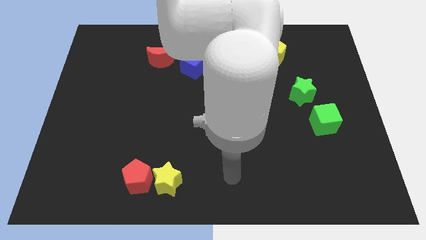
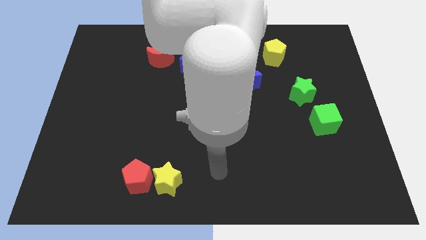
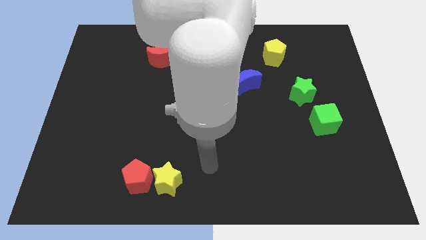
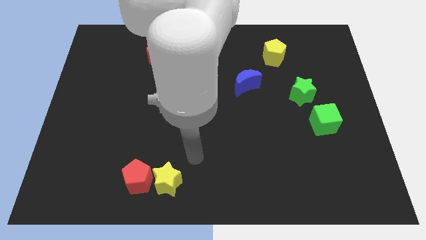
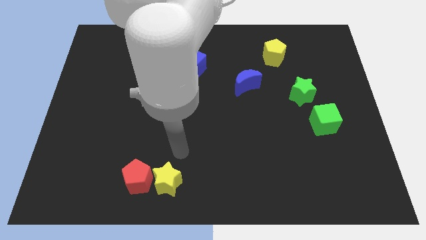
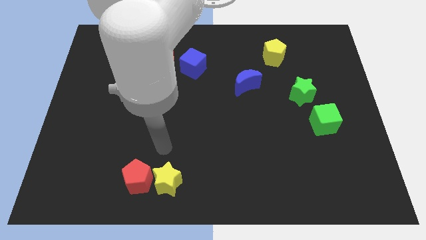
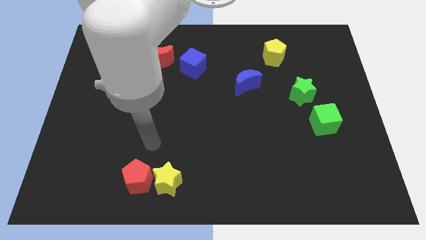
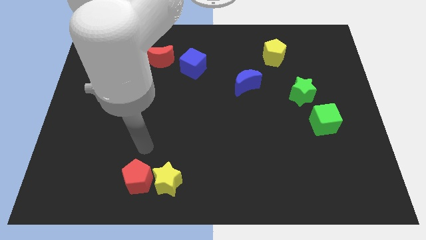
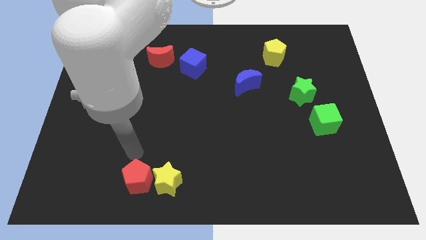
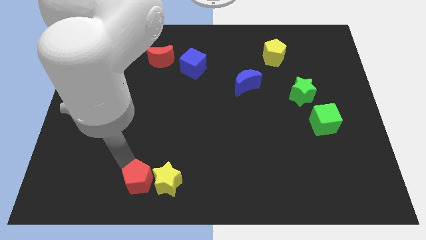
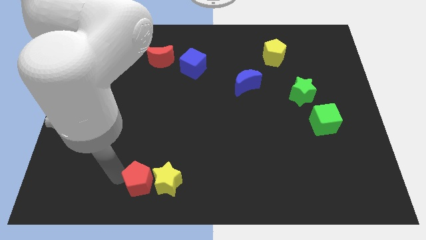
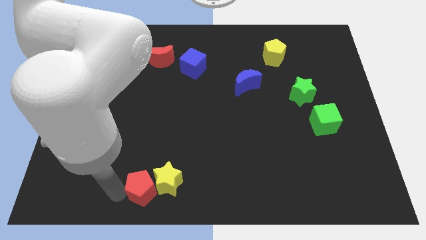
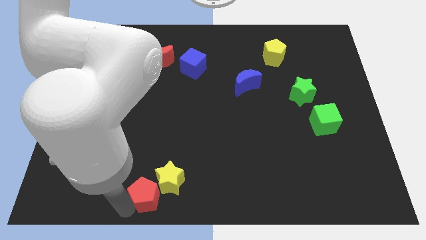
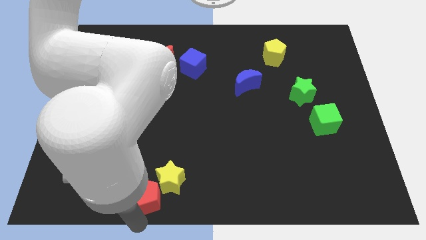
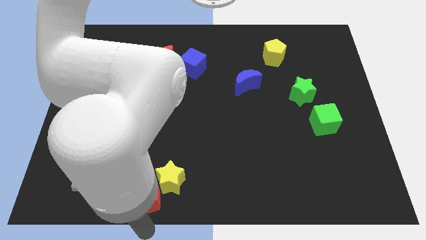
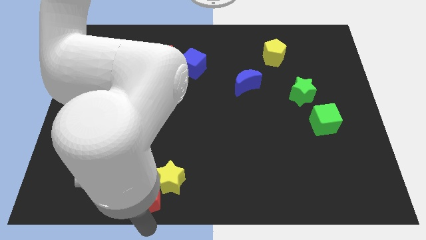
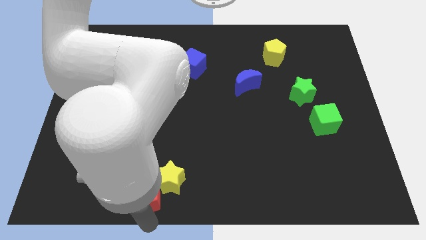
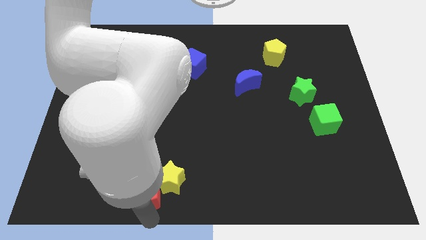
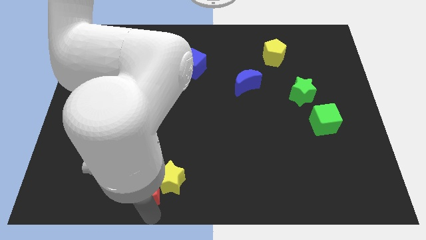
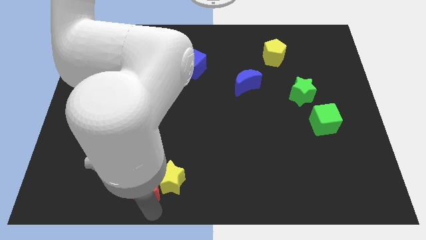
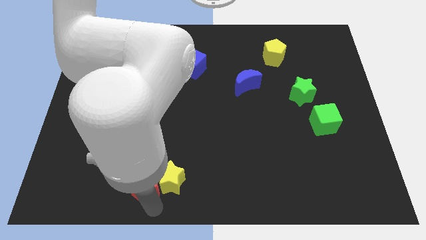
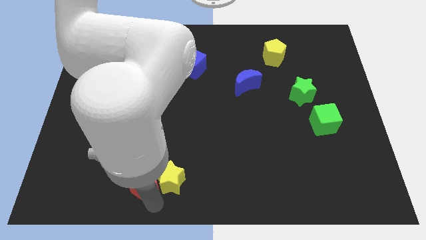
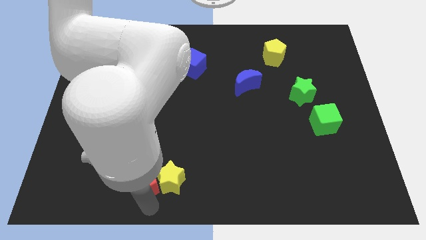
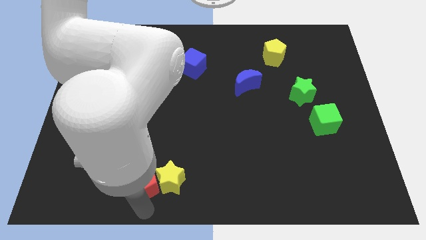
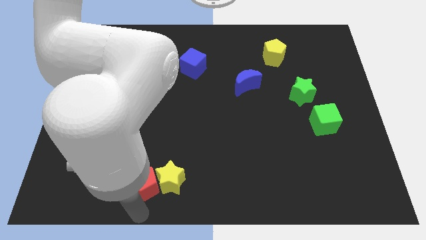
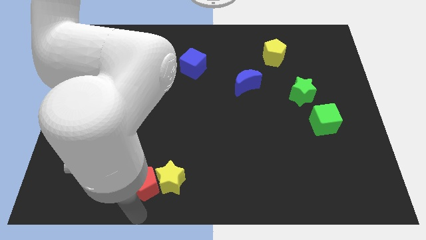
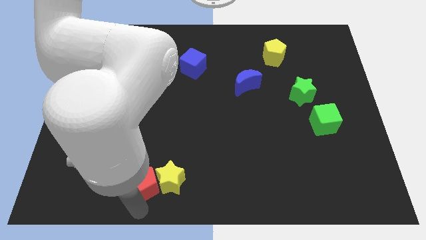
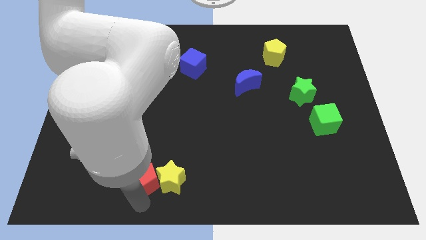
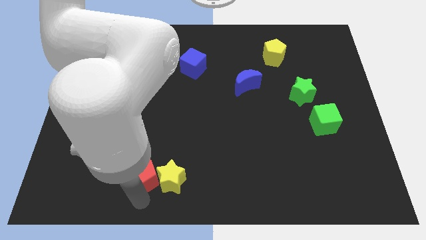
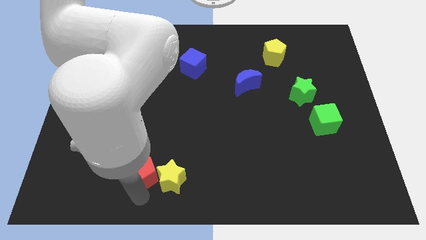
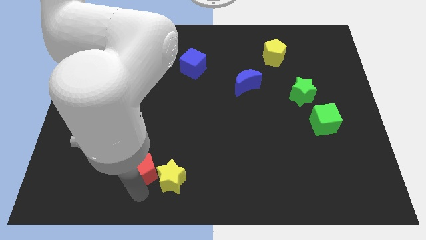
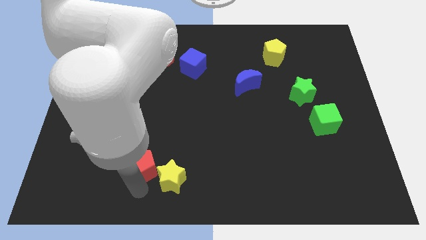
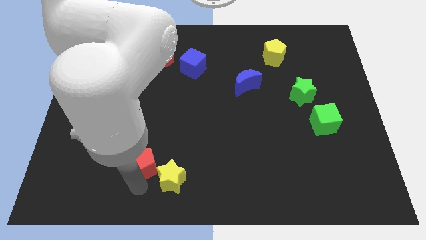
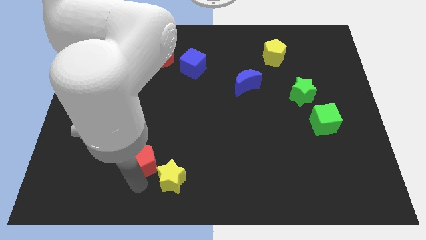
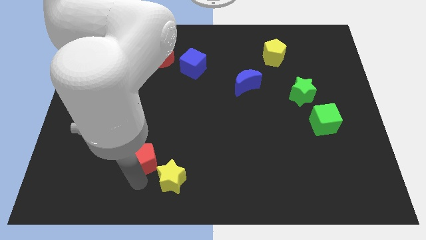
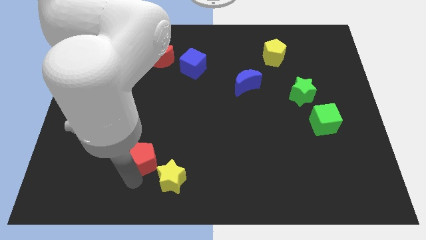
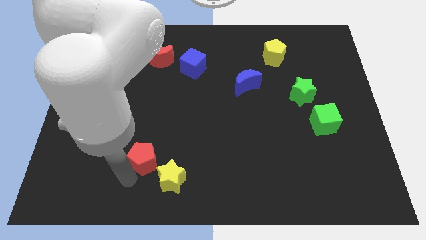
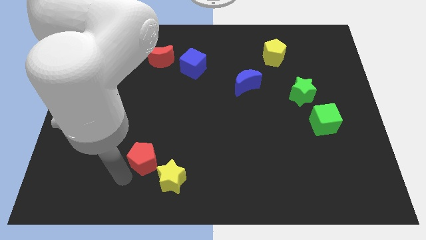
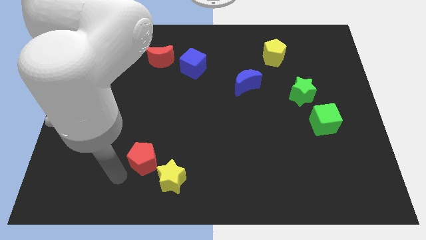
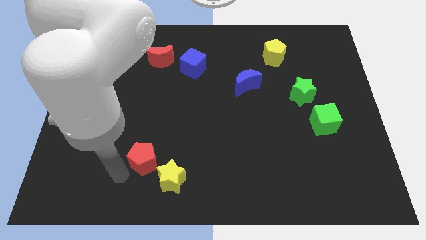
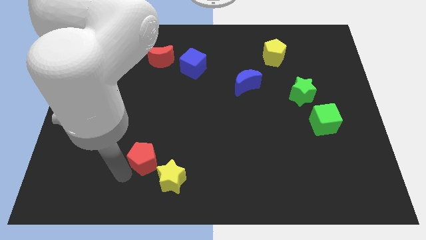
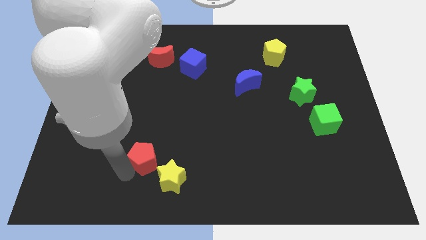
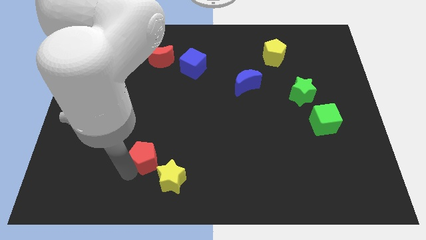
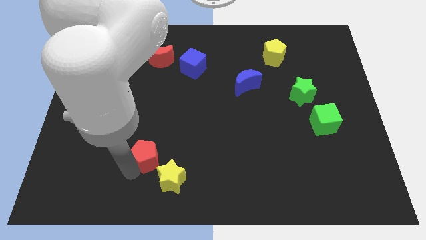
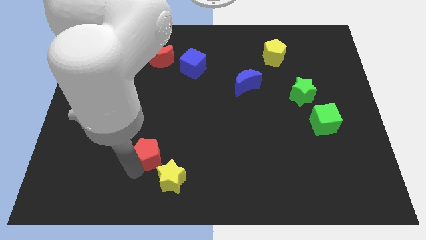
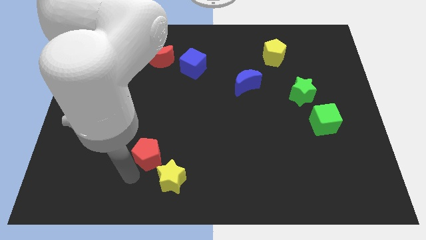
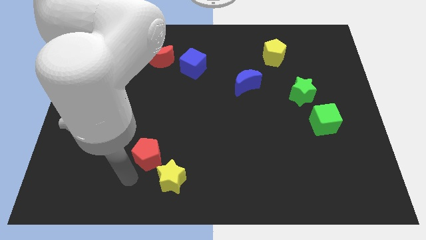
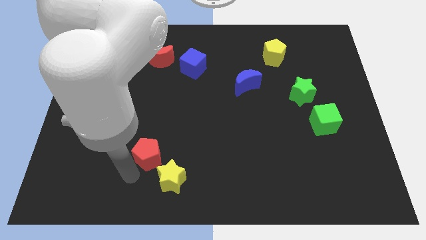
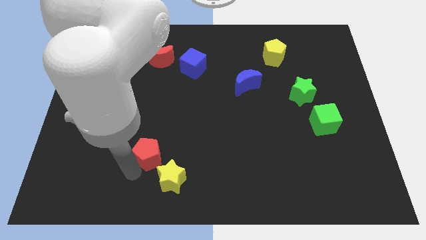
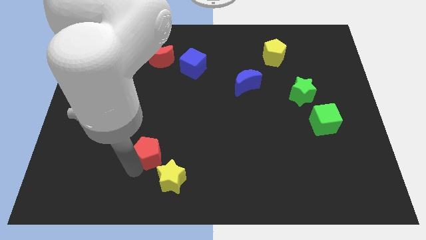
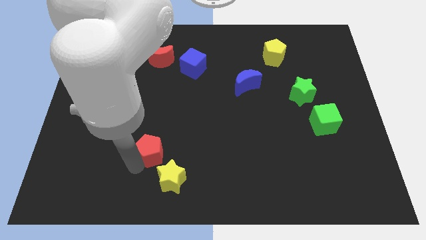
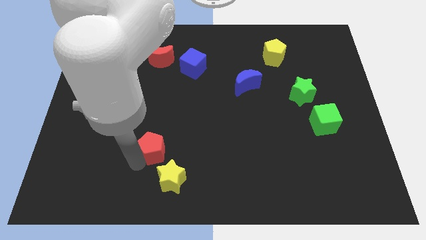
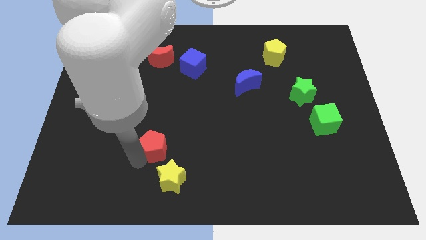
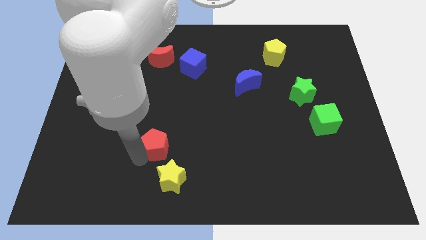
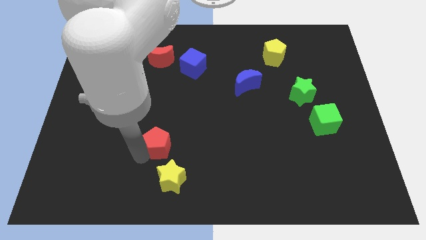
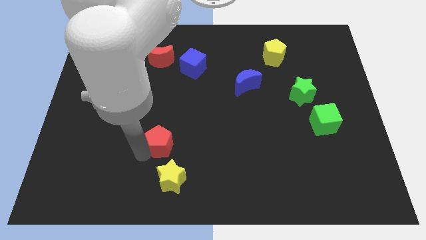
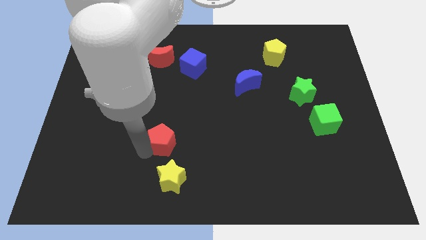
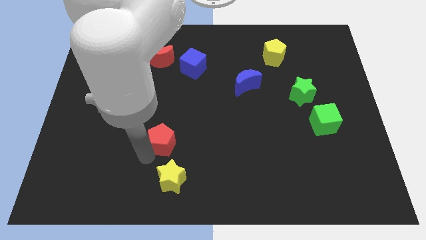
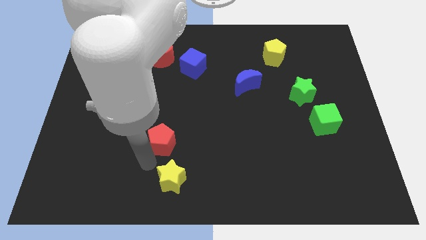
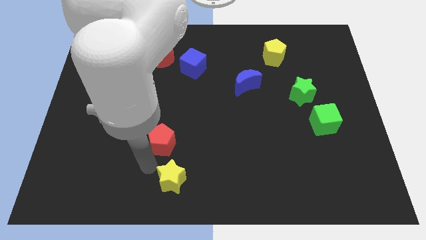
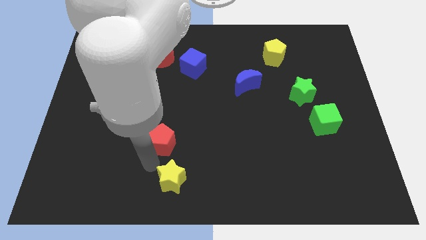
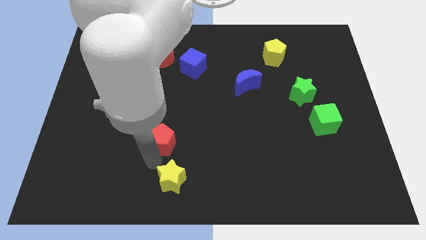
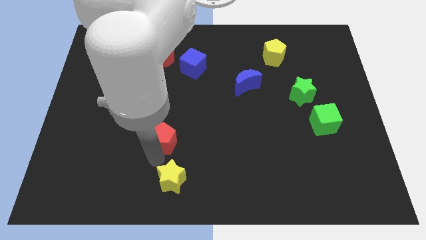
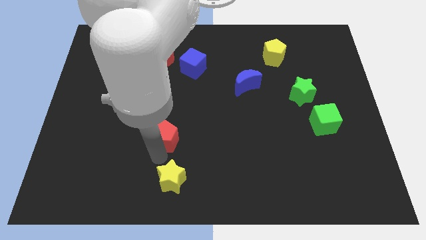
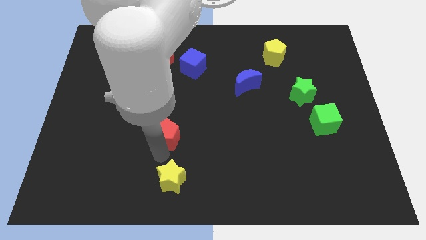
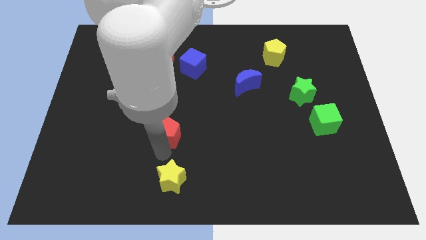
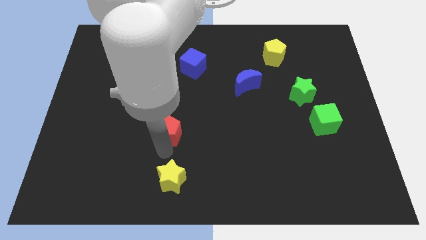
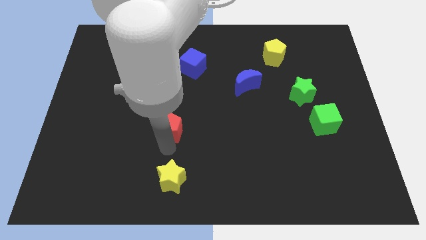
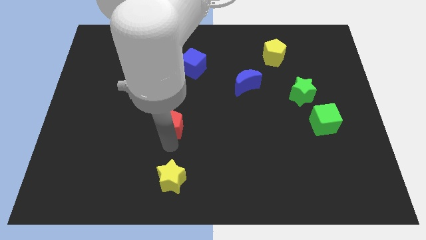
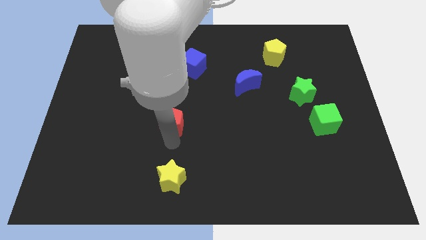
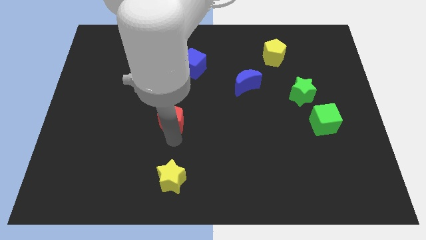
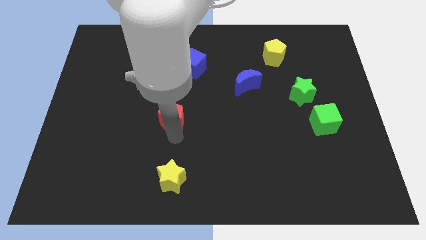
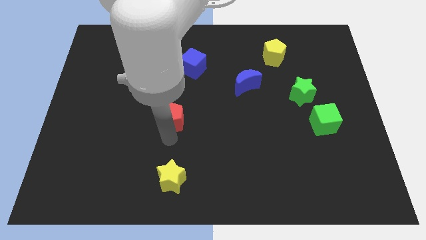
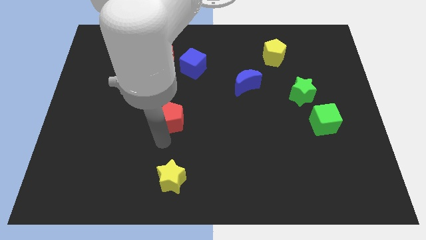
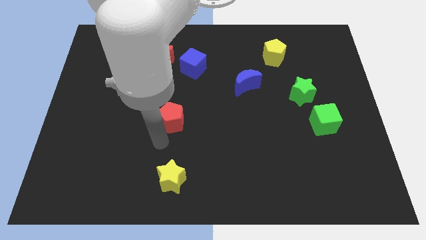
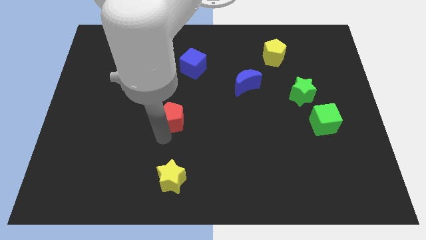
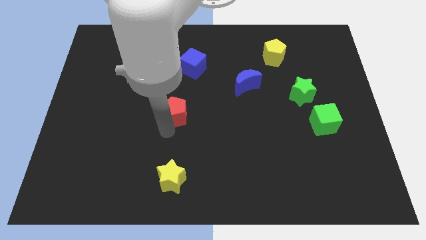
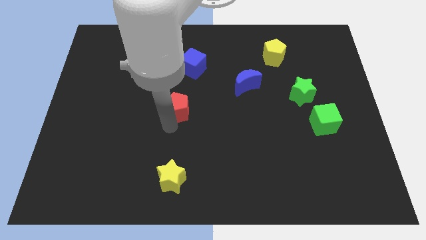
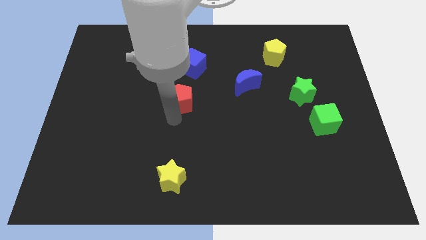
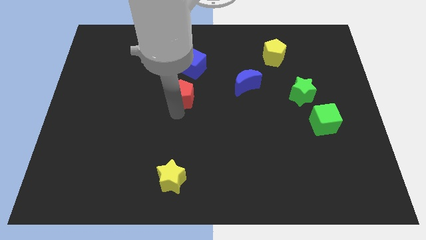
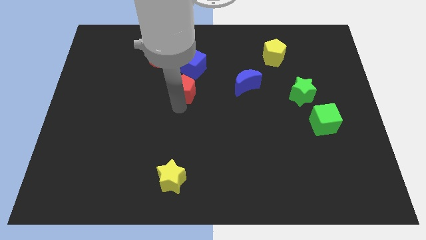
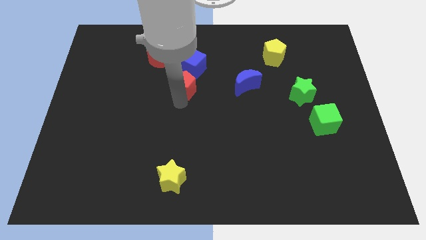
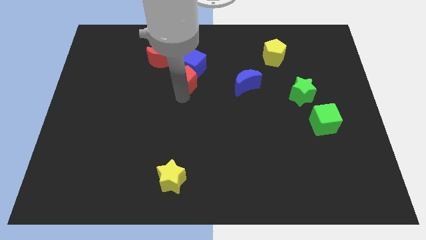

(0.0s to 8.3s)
slide the red pentagon close to the blue cube
